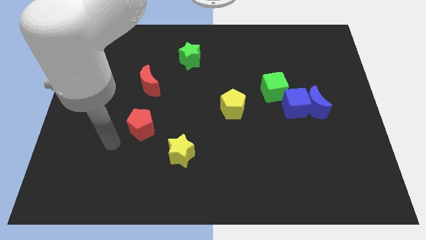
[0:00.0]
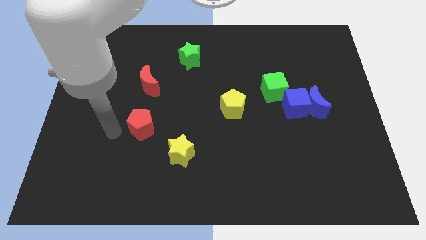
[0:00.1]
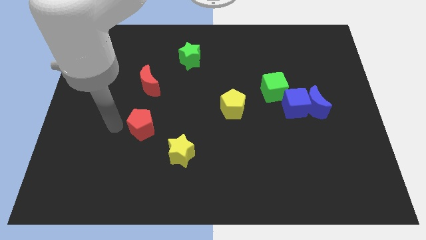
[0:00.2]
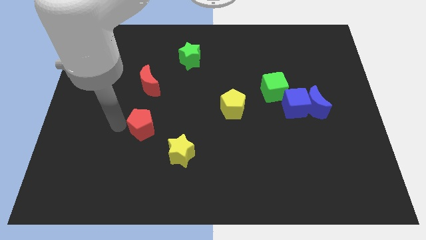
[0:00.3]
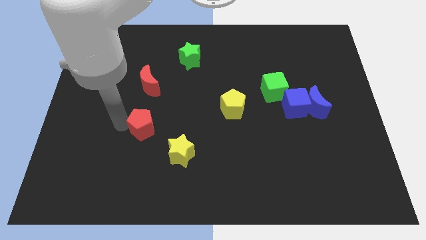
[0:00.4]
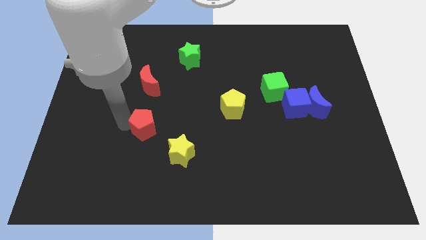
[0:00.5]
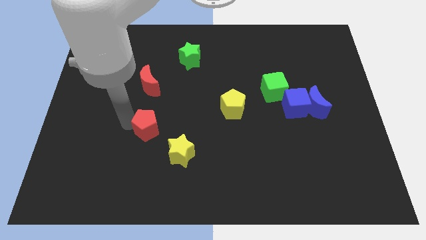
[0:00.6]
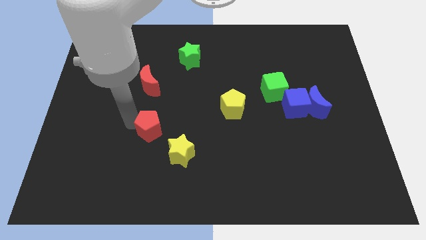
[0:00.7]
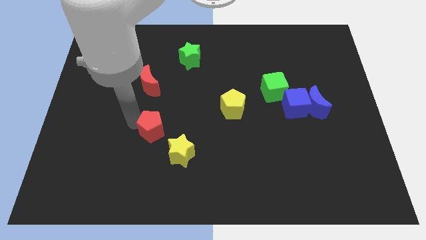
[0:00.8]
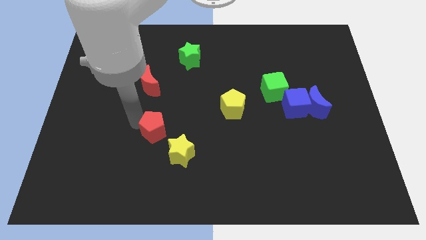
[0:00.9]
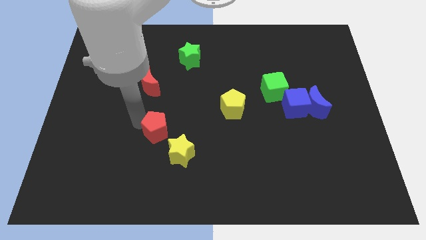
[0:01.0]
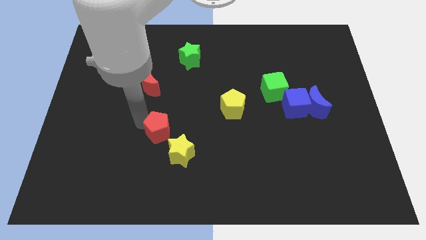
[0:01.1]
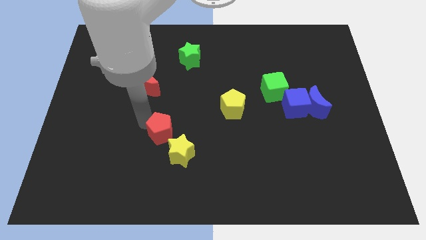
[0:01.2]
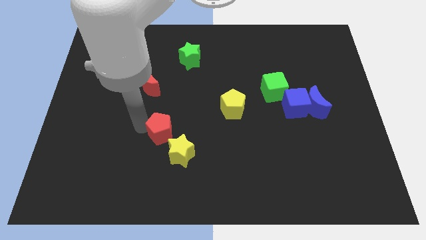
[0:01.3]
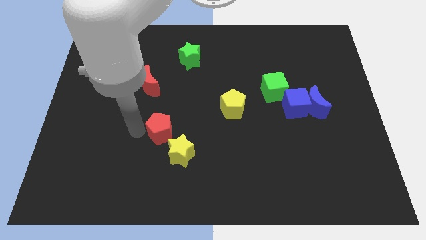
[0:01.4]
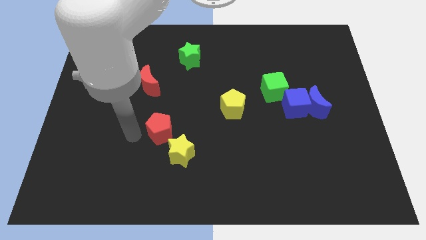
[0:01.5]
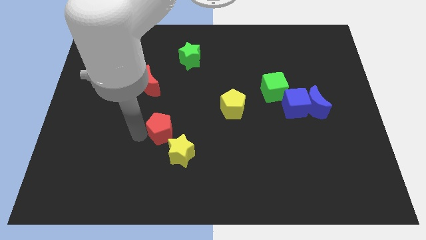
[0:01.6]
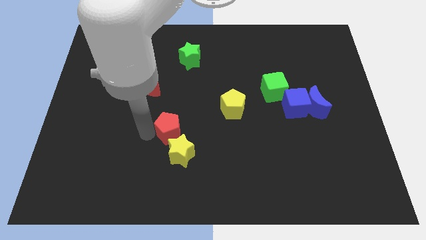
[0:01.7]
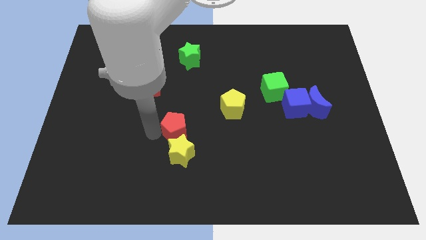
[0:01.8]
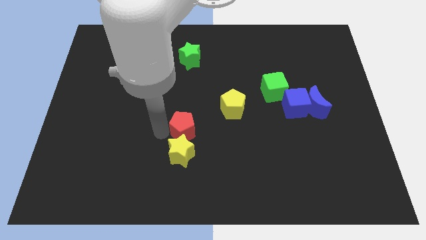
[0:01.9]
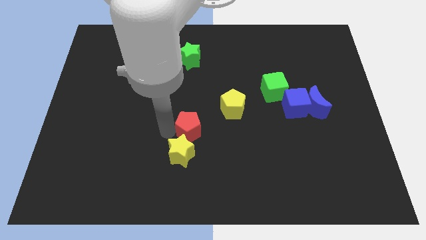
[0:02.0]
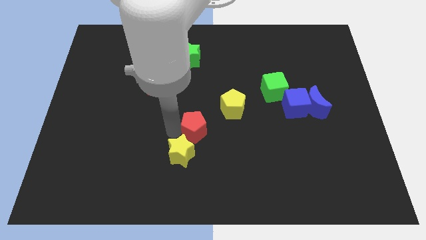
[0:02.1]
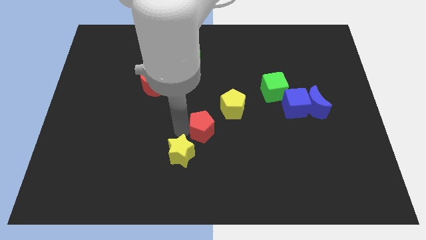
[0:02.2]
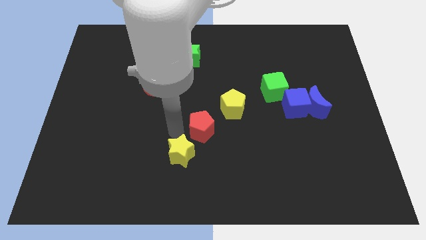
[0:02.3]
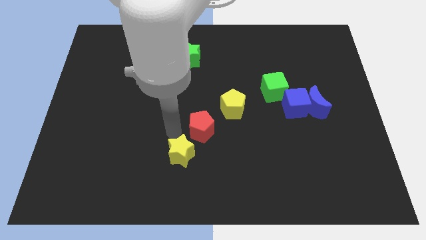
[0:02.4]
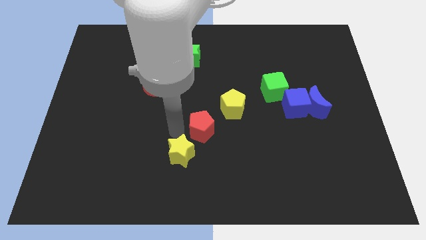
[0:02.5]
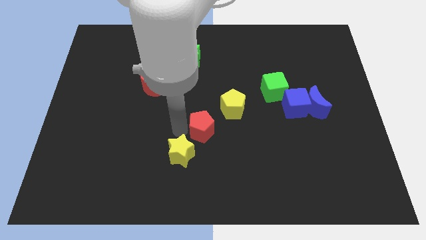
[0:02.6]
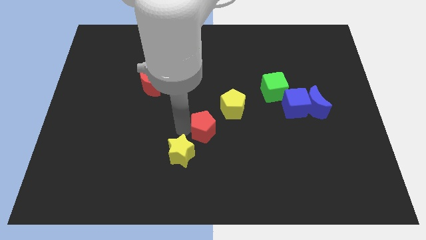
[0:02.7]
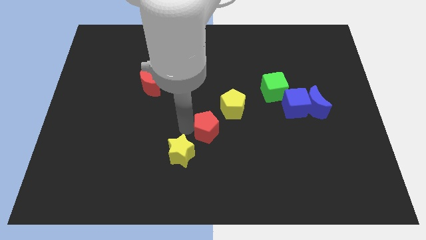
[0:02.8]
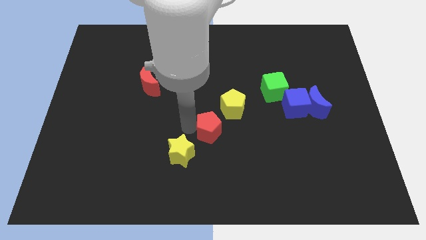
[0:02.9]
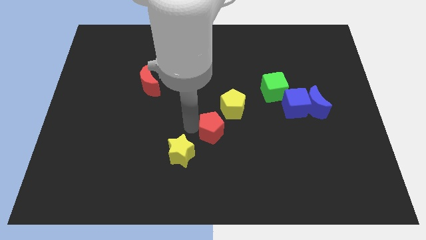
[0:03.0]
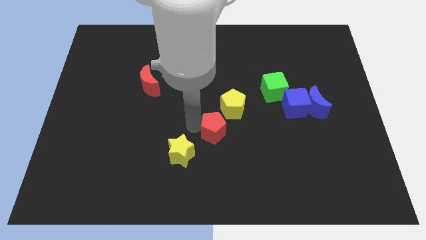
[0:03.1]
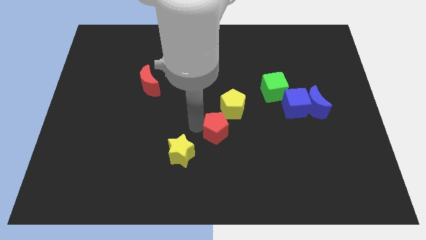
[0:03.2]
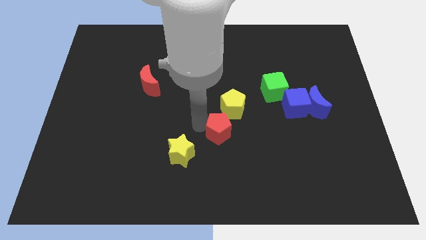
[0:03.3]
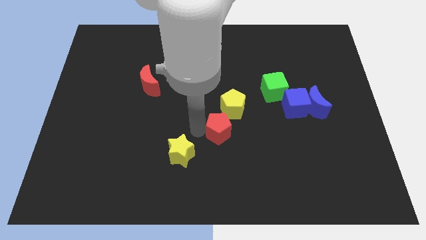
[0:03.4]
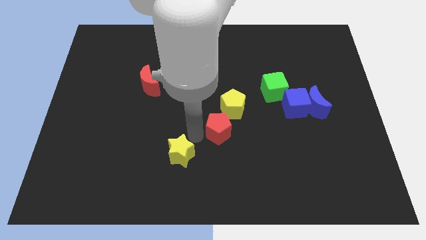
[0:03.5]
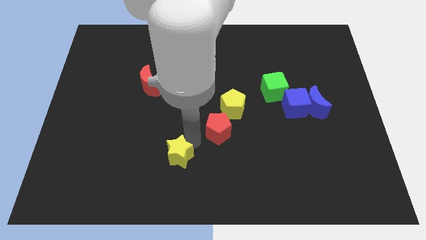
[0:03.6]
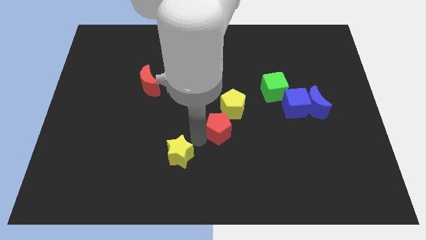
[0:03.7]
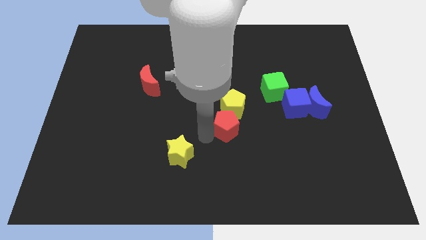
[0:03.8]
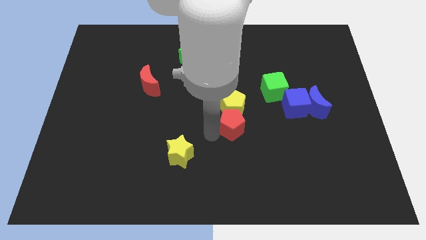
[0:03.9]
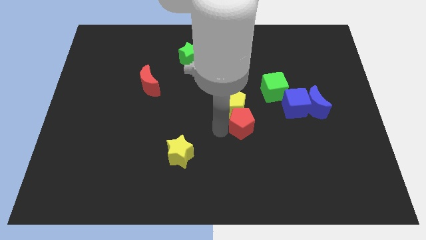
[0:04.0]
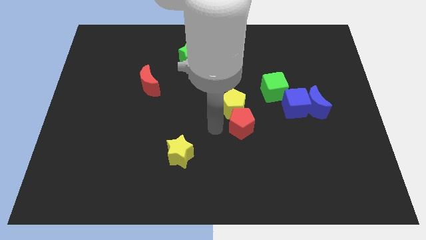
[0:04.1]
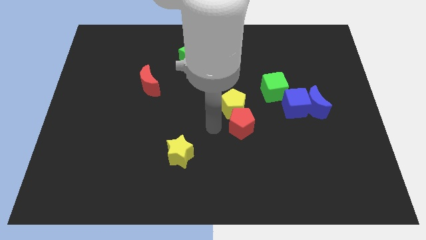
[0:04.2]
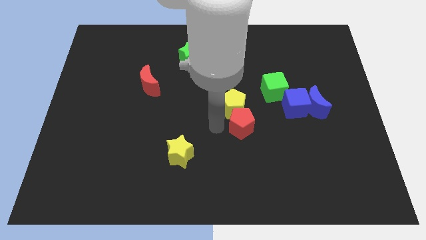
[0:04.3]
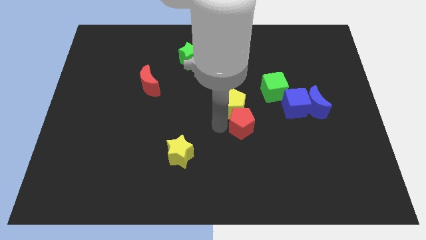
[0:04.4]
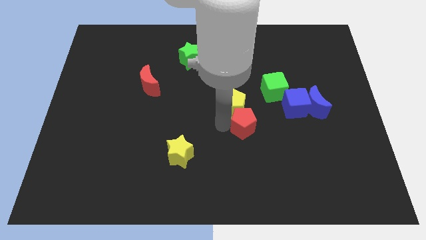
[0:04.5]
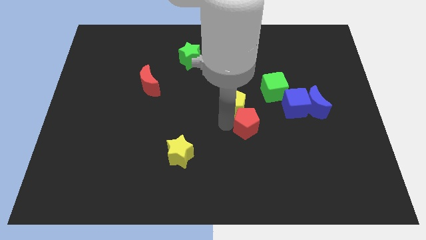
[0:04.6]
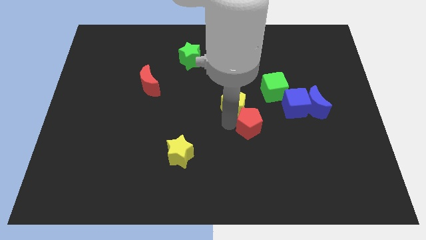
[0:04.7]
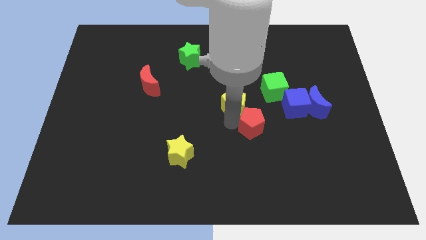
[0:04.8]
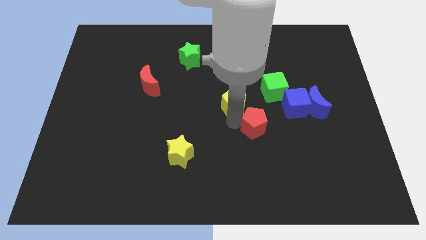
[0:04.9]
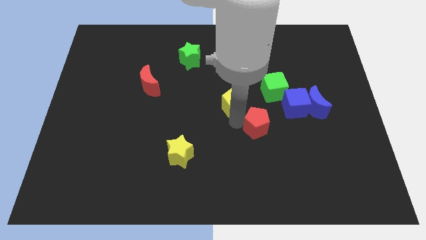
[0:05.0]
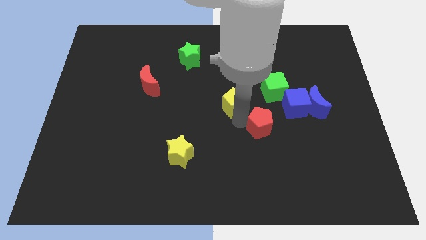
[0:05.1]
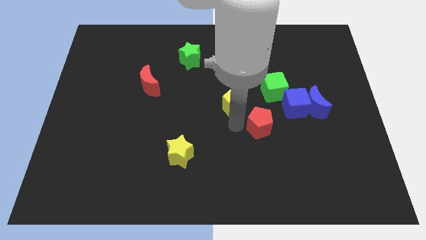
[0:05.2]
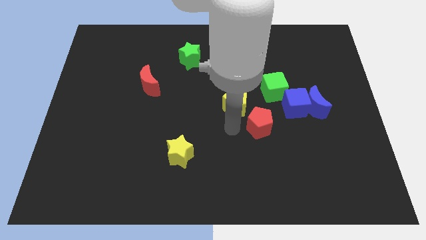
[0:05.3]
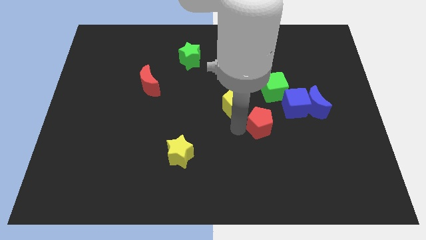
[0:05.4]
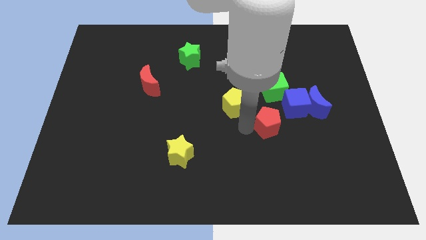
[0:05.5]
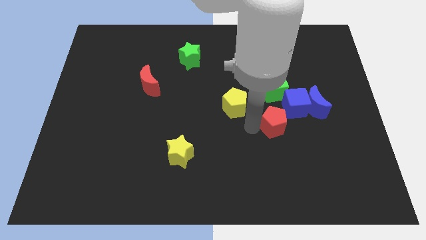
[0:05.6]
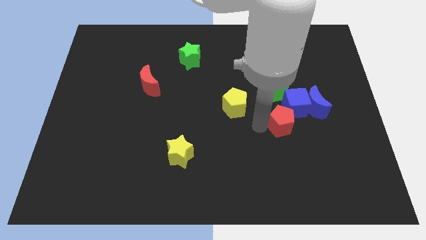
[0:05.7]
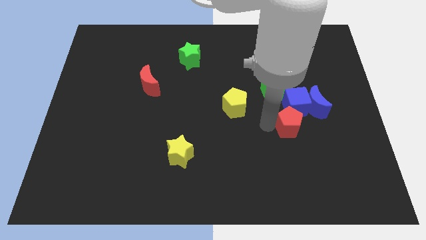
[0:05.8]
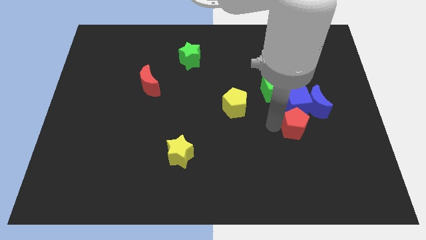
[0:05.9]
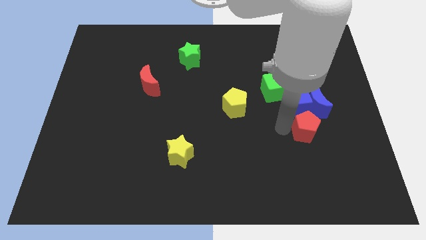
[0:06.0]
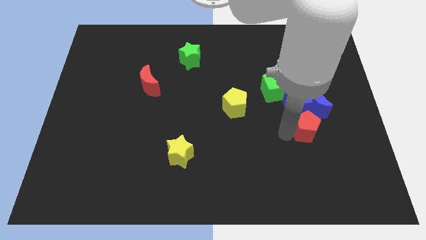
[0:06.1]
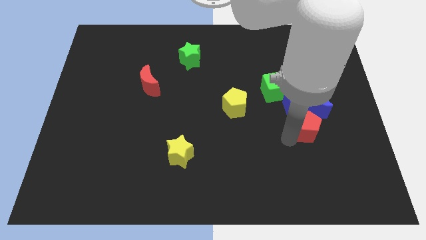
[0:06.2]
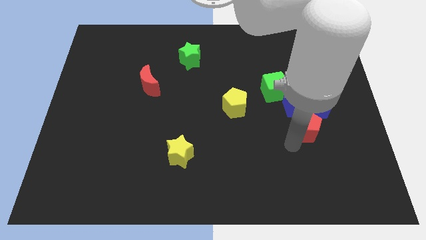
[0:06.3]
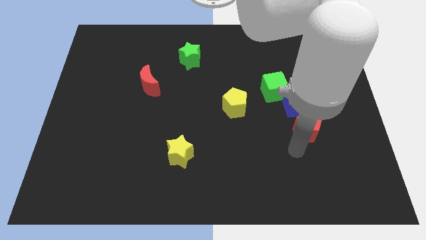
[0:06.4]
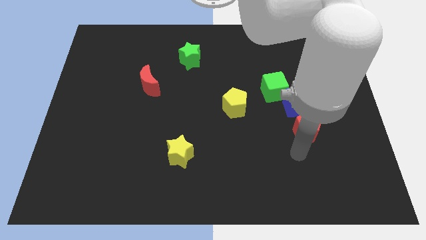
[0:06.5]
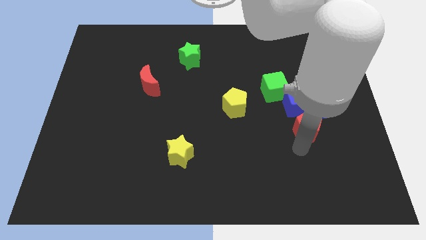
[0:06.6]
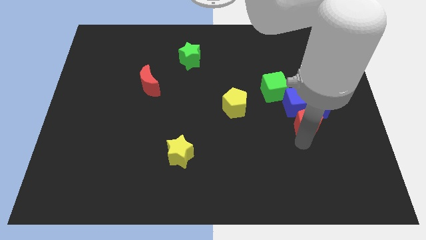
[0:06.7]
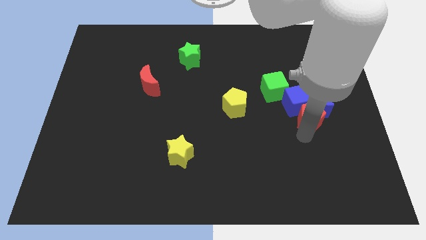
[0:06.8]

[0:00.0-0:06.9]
push the red pentagon to the blue moon

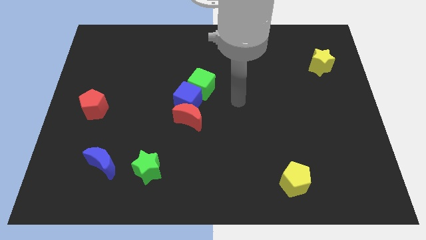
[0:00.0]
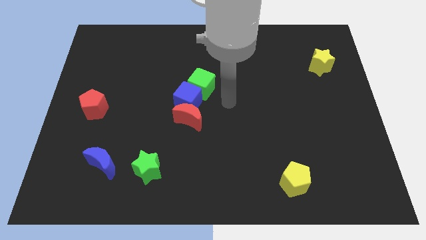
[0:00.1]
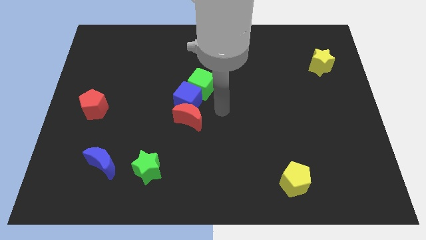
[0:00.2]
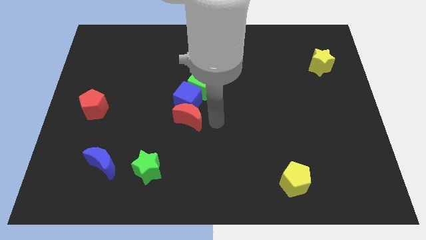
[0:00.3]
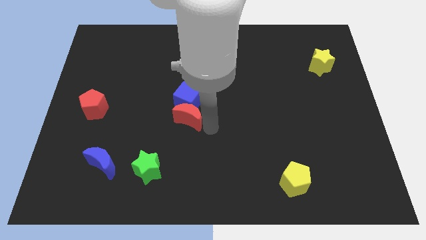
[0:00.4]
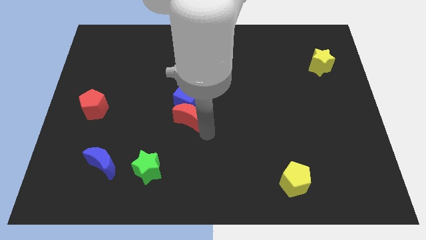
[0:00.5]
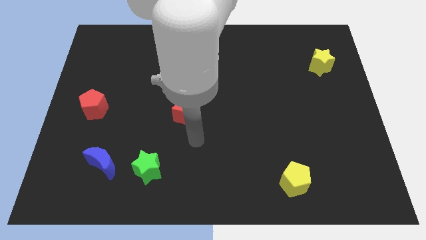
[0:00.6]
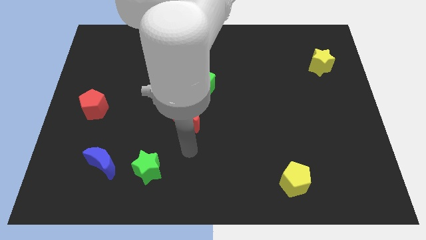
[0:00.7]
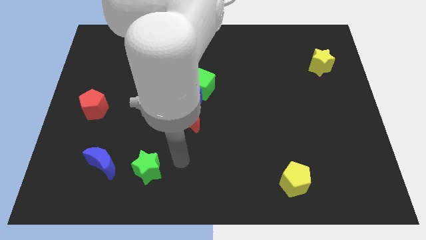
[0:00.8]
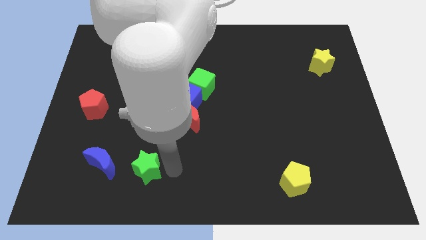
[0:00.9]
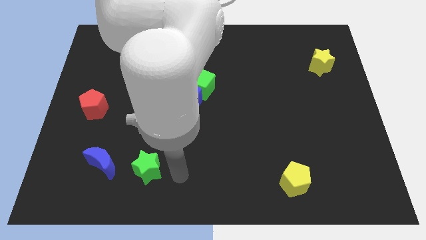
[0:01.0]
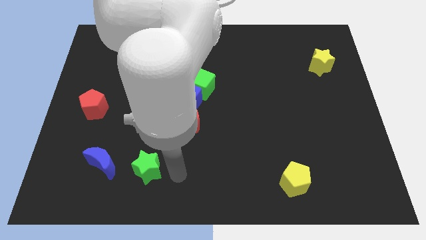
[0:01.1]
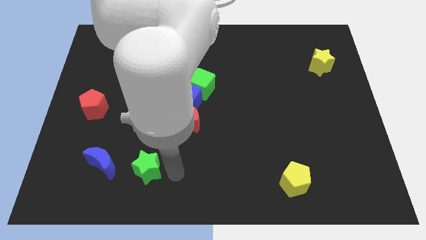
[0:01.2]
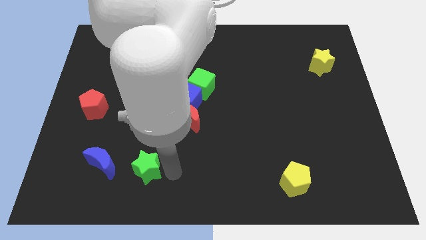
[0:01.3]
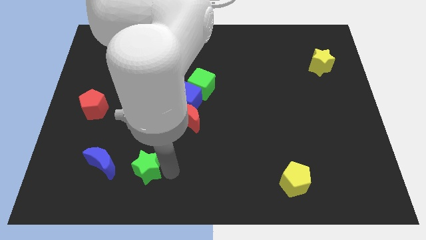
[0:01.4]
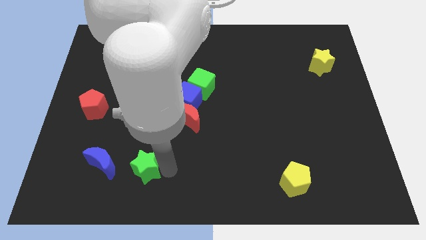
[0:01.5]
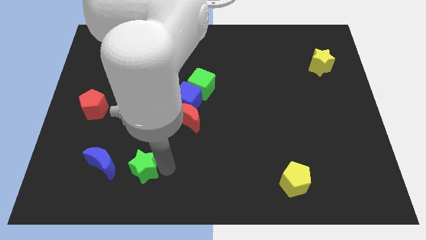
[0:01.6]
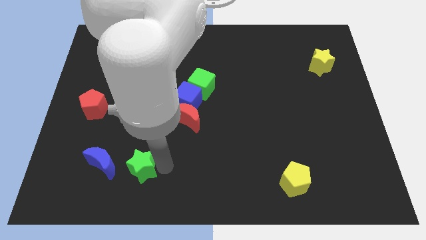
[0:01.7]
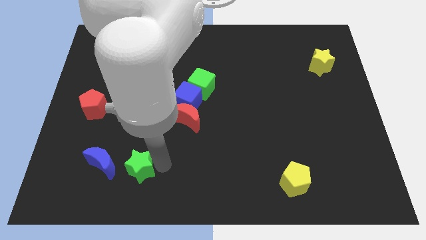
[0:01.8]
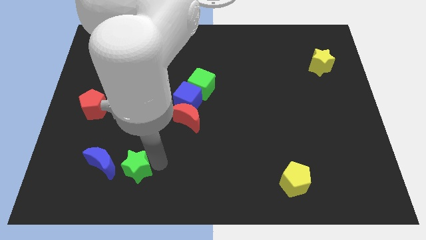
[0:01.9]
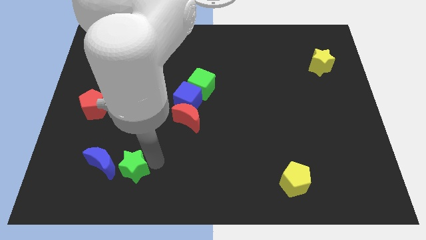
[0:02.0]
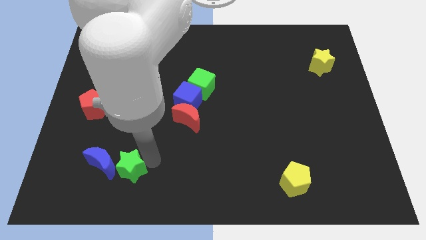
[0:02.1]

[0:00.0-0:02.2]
slide the green star close to the blue moon
